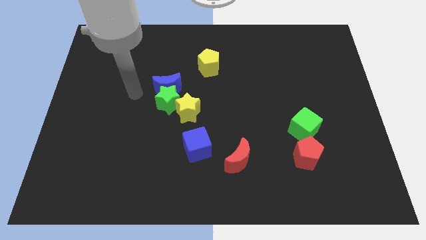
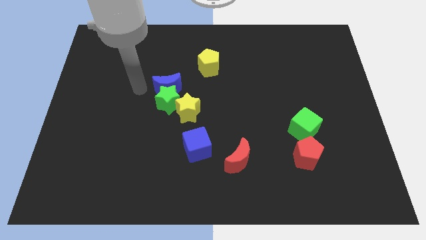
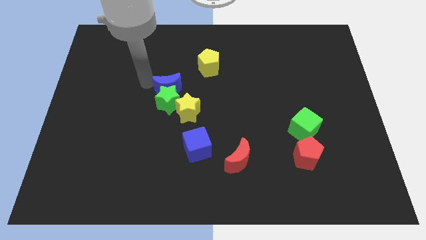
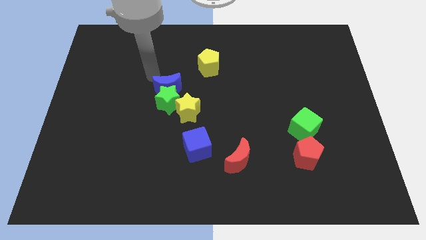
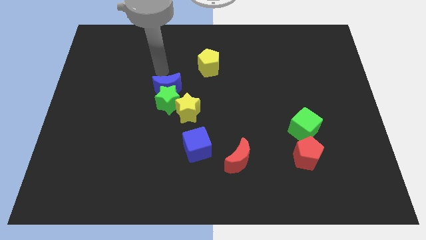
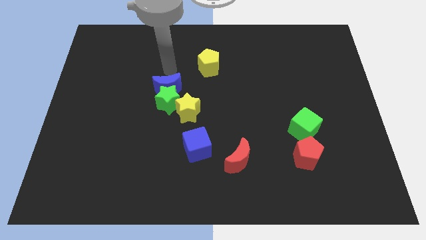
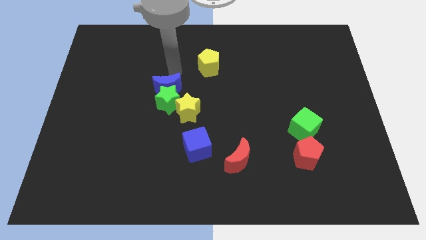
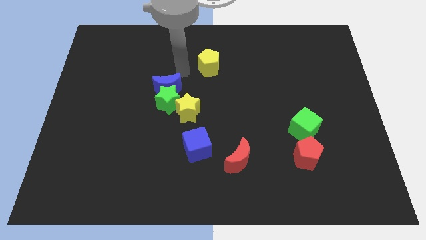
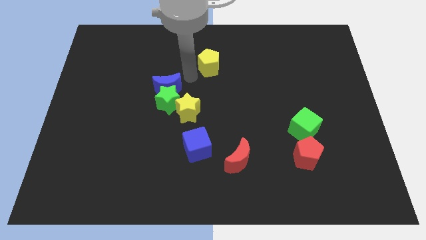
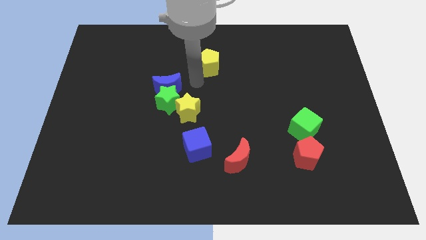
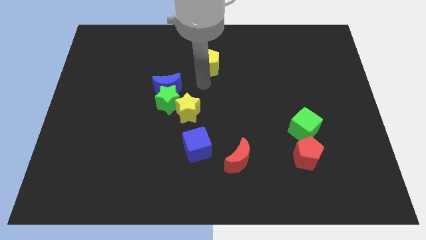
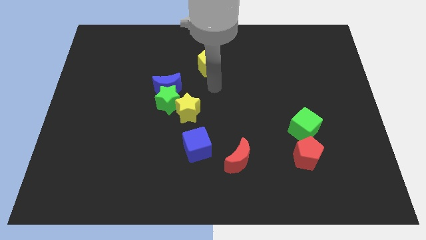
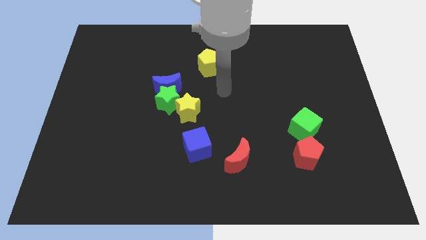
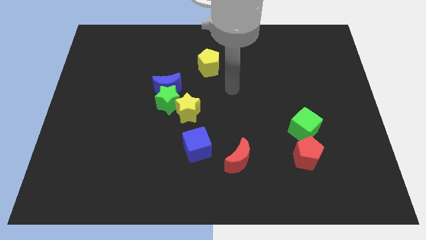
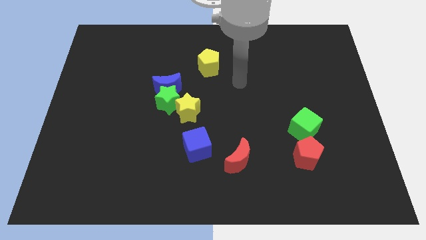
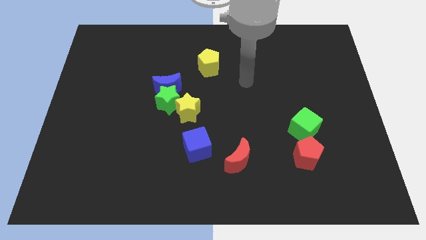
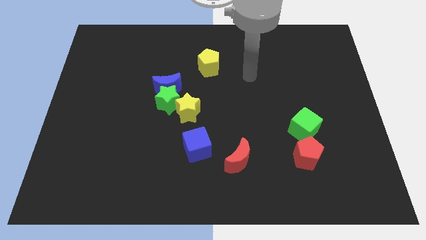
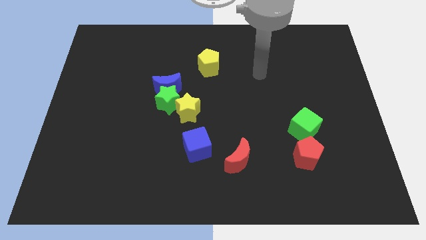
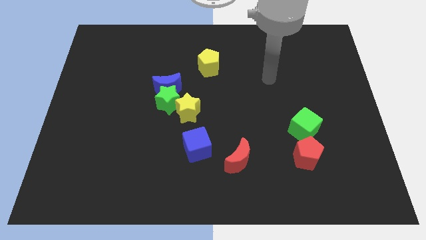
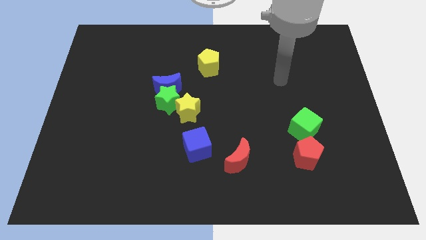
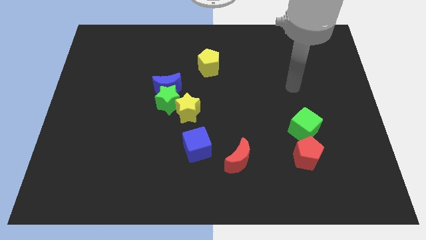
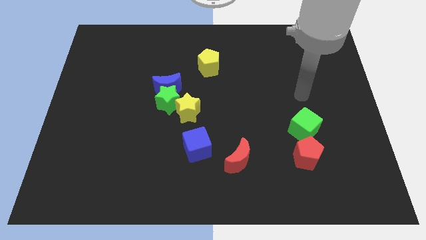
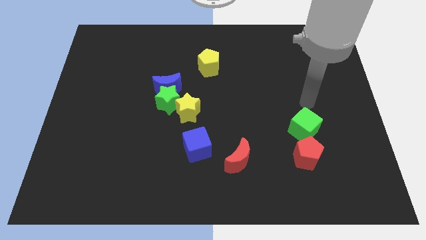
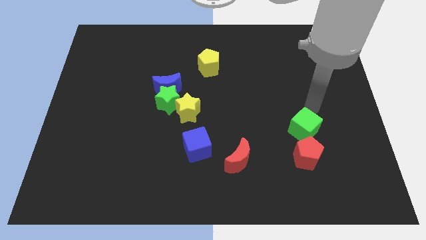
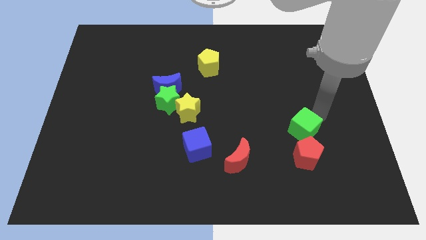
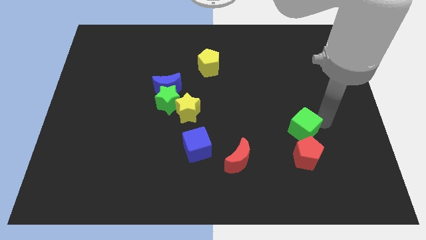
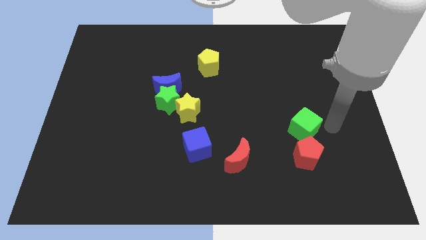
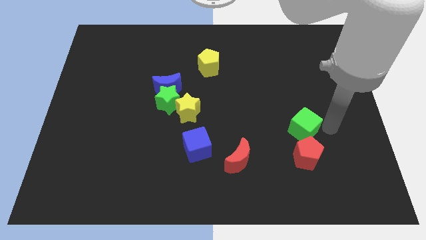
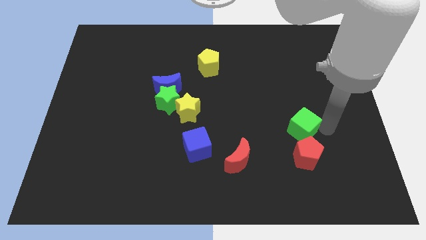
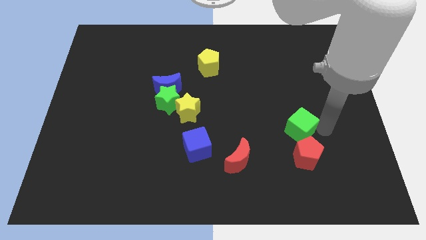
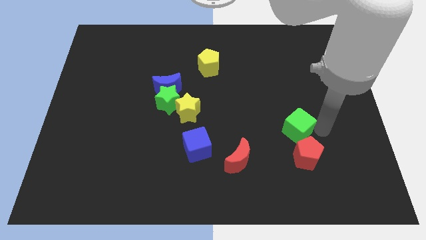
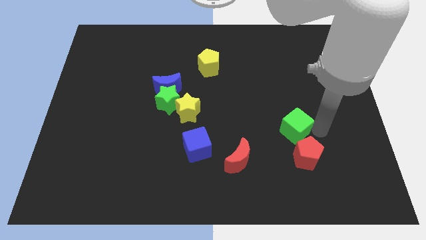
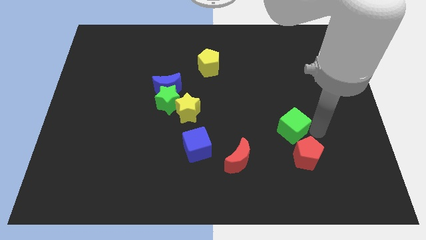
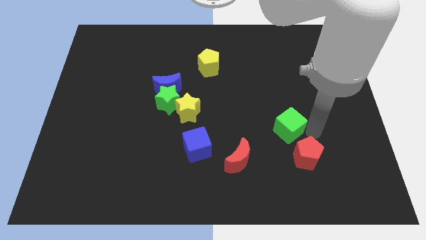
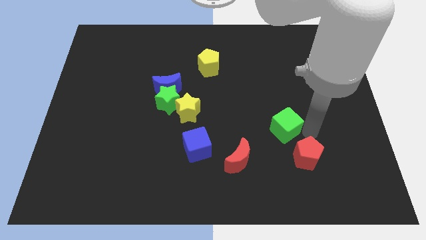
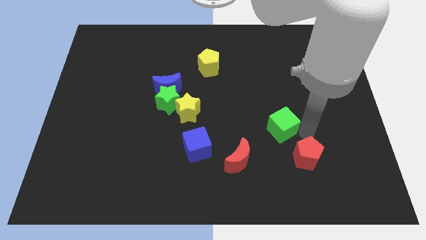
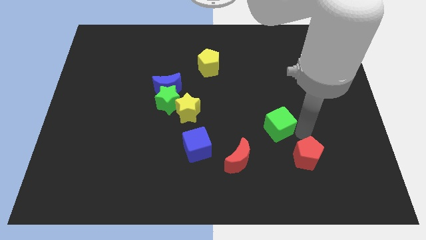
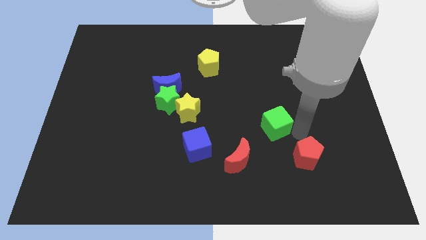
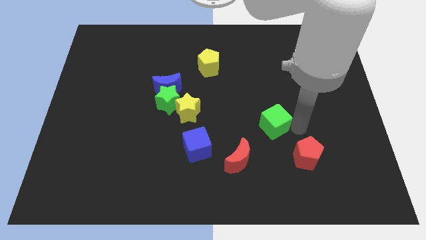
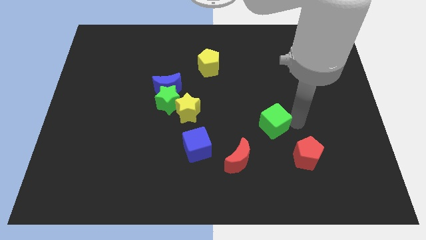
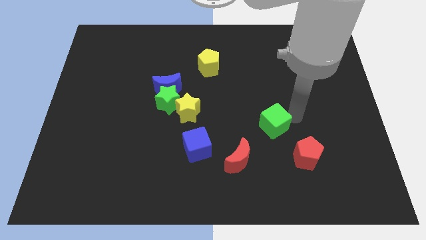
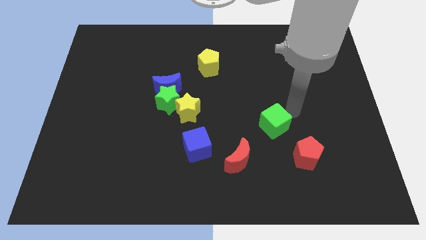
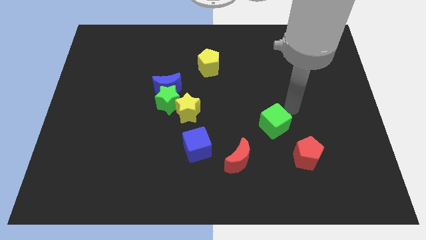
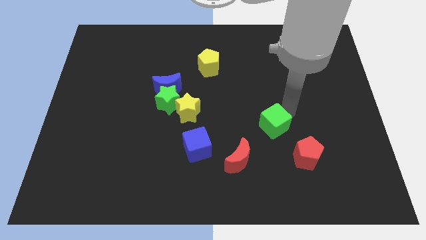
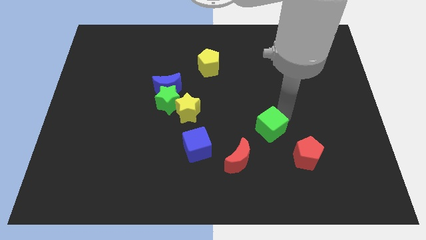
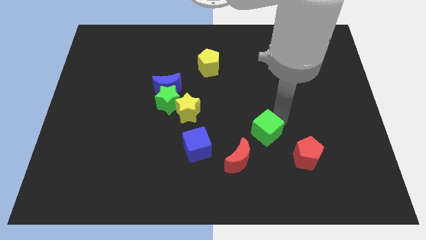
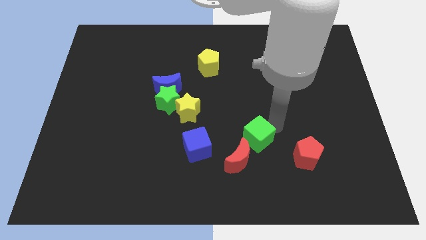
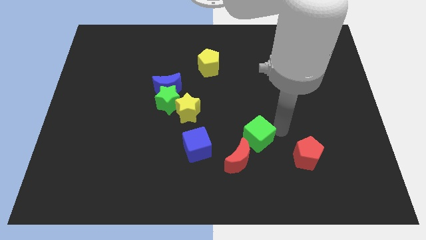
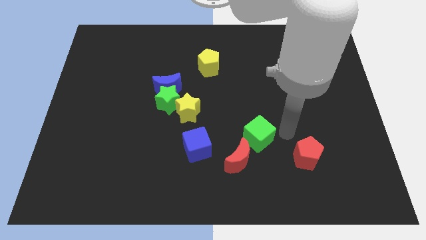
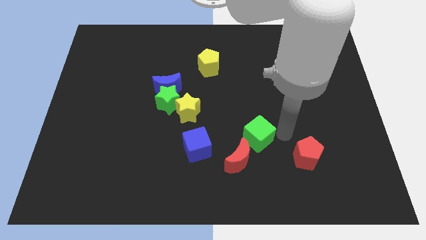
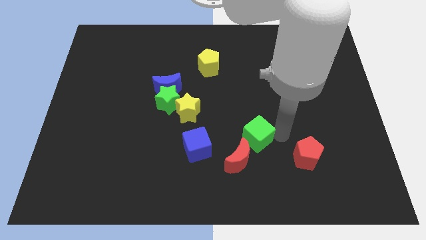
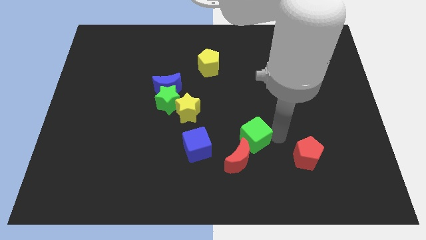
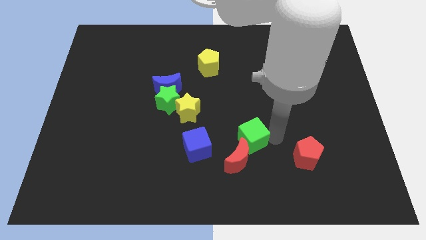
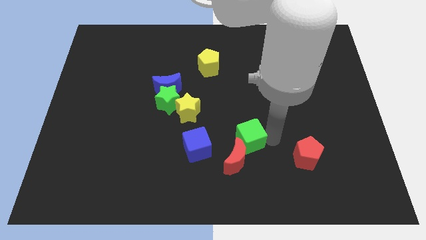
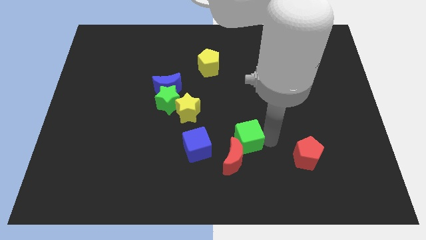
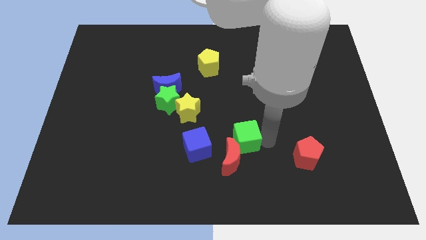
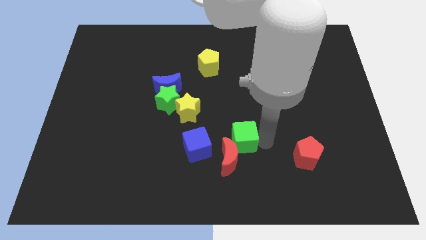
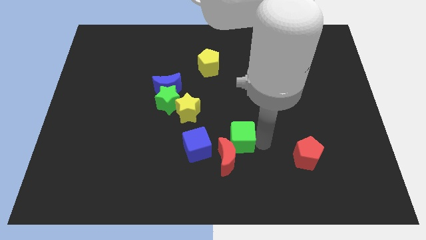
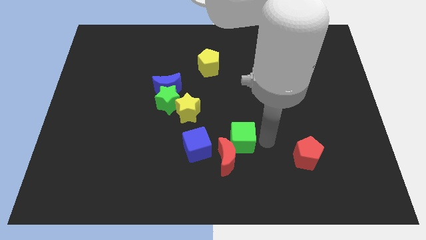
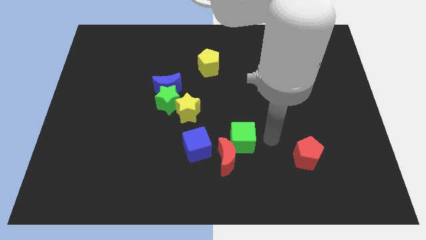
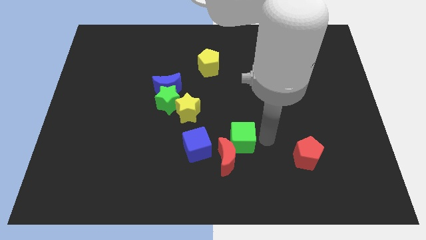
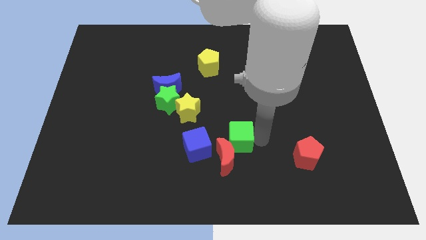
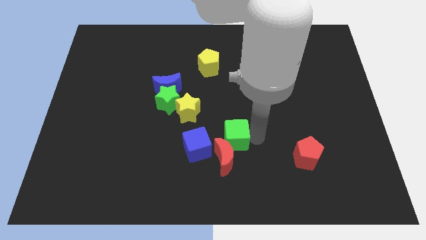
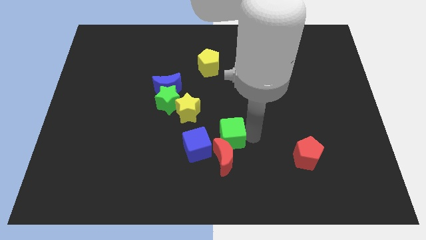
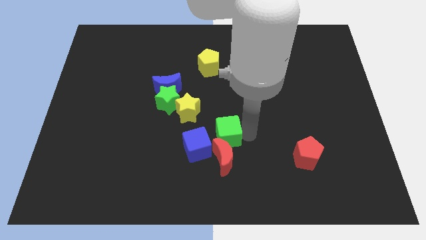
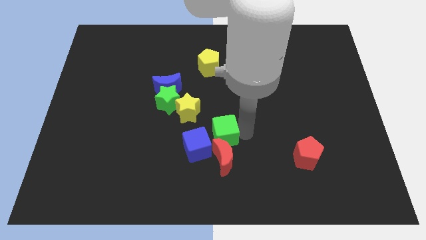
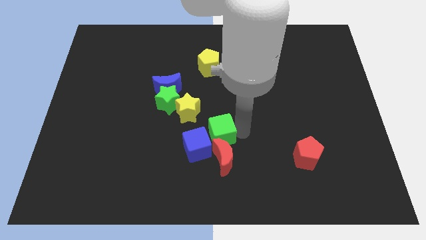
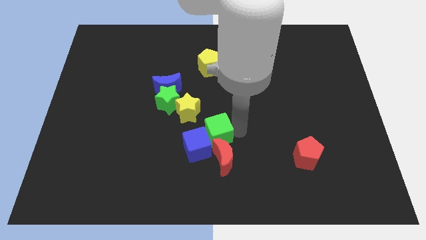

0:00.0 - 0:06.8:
slide the green cube close to the blue cube
